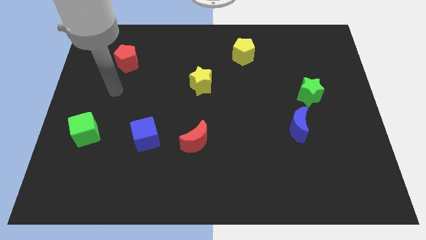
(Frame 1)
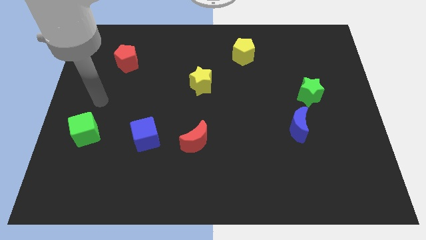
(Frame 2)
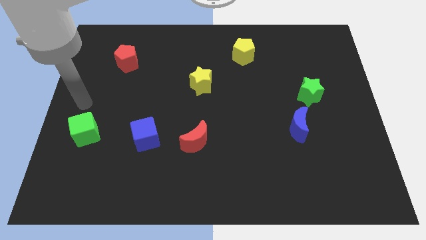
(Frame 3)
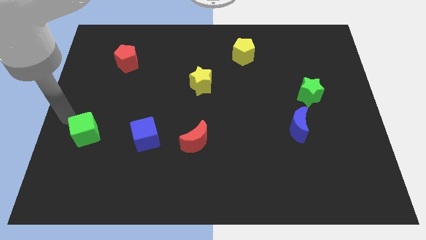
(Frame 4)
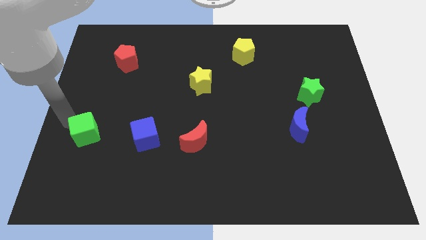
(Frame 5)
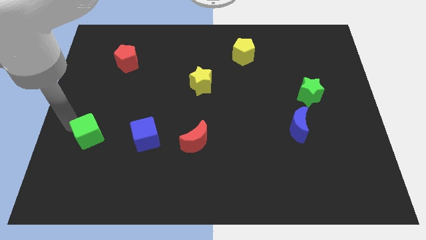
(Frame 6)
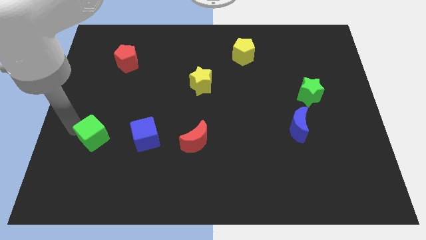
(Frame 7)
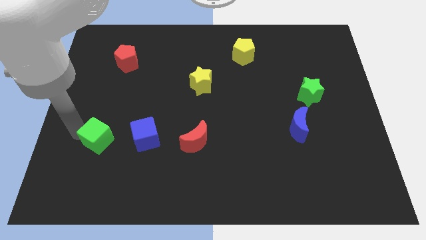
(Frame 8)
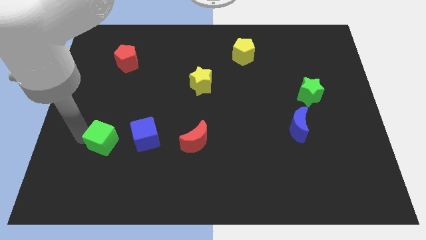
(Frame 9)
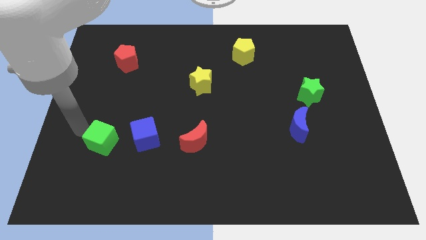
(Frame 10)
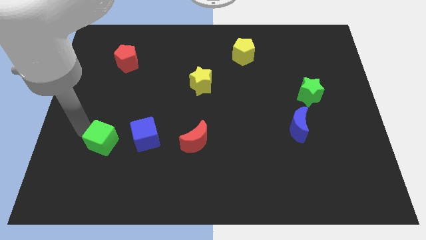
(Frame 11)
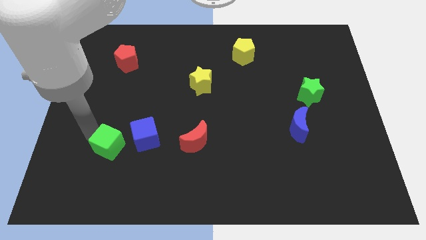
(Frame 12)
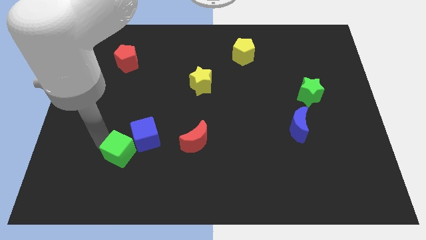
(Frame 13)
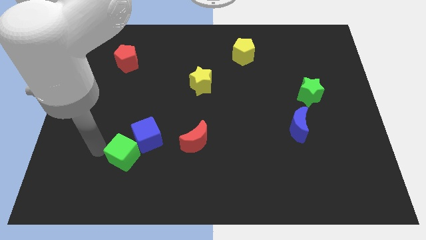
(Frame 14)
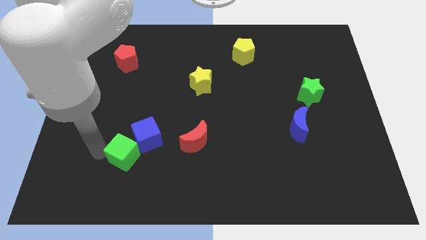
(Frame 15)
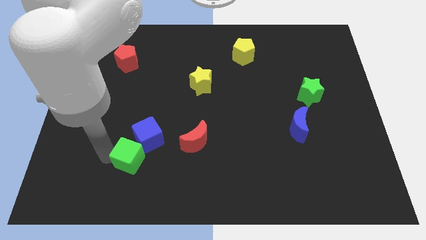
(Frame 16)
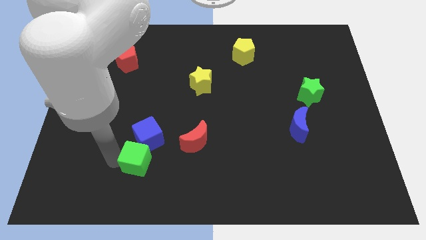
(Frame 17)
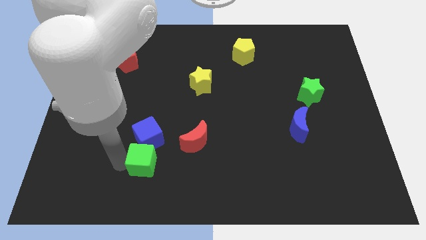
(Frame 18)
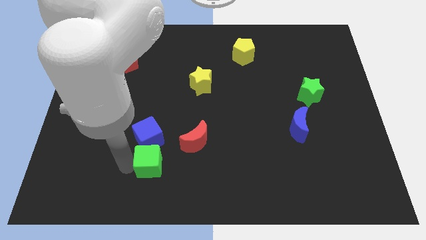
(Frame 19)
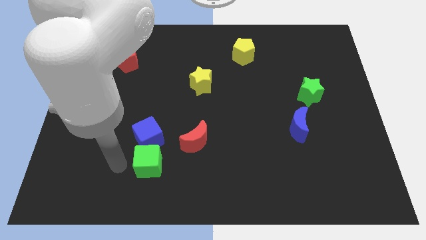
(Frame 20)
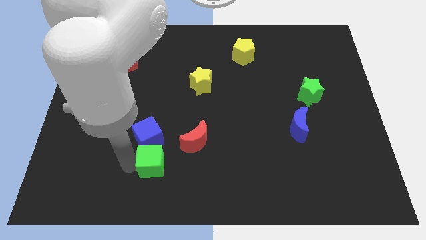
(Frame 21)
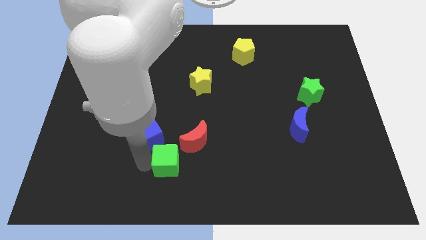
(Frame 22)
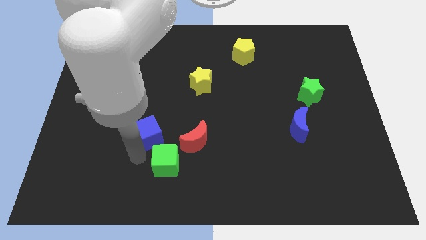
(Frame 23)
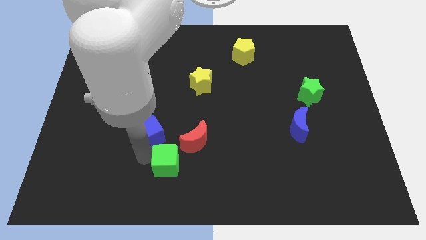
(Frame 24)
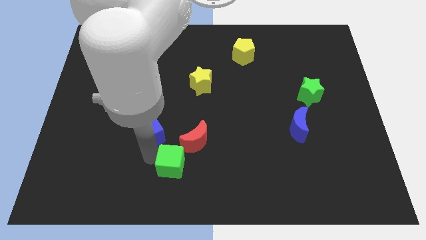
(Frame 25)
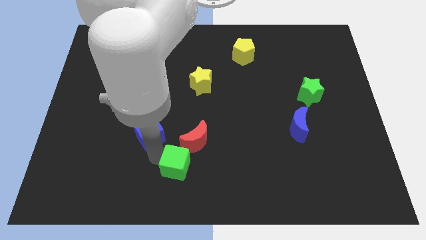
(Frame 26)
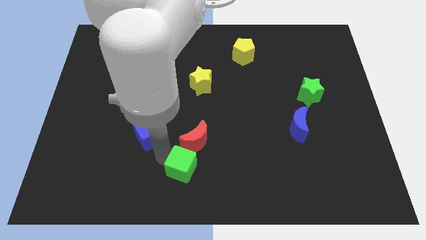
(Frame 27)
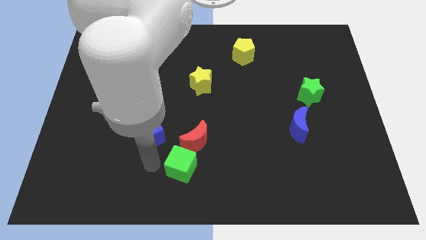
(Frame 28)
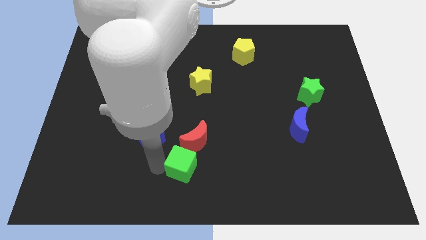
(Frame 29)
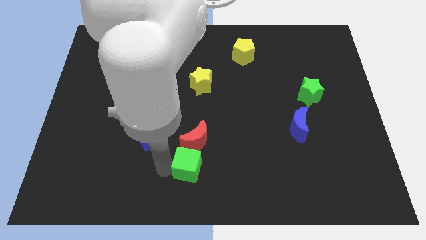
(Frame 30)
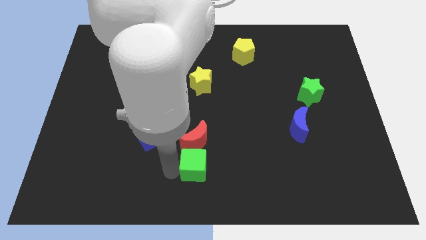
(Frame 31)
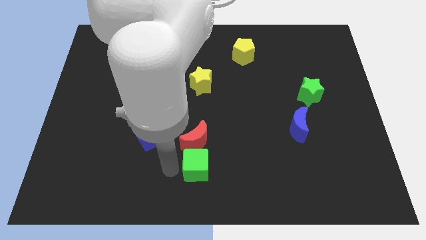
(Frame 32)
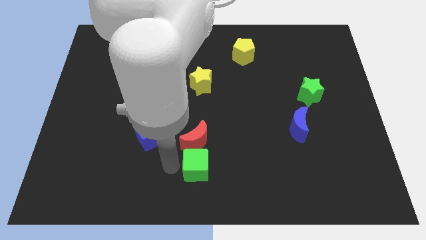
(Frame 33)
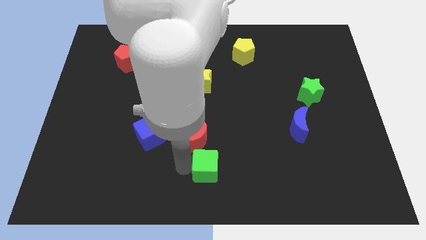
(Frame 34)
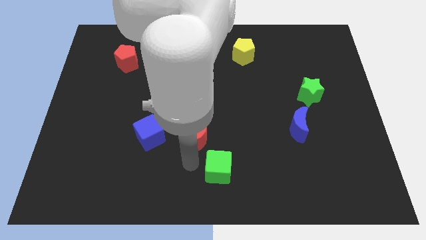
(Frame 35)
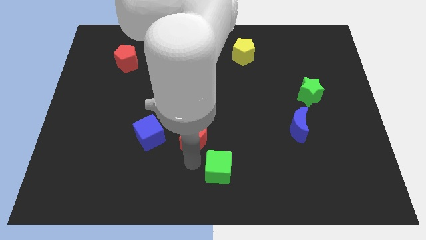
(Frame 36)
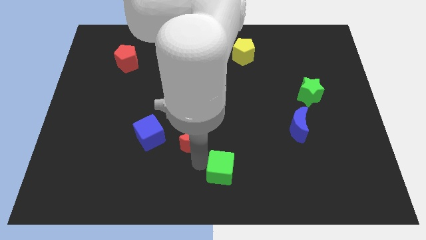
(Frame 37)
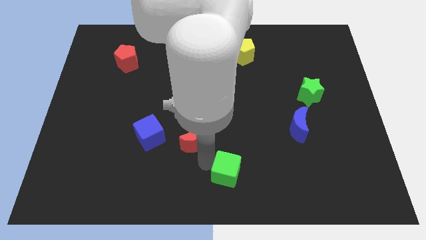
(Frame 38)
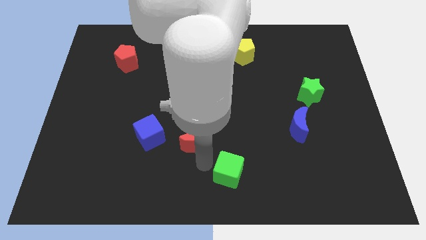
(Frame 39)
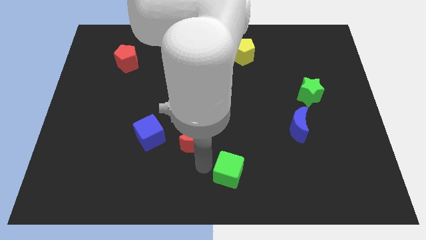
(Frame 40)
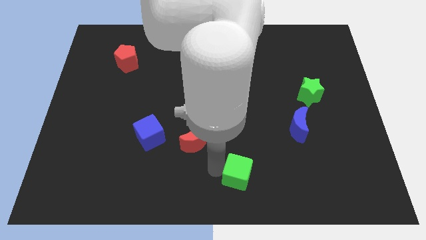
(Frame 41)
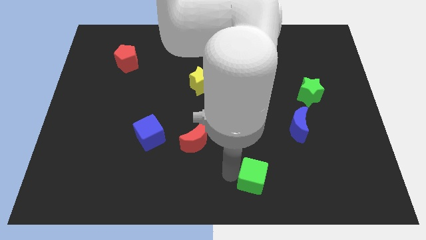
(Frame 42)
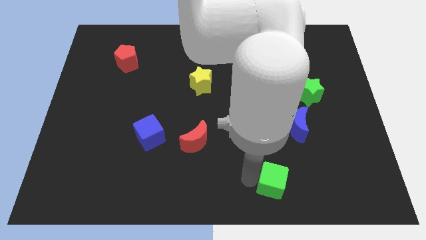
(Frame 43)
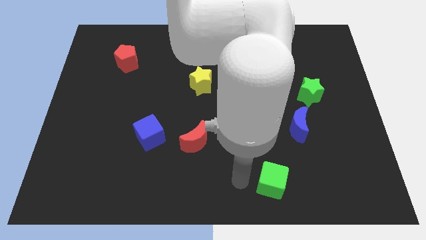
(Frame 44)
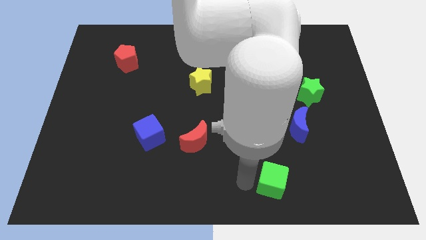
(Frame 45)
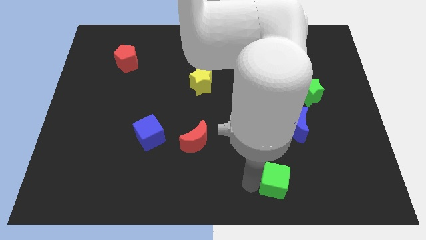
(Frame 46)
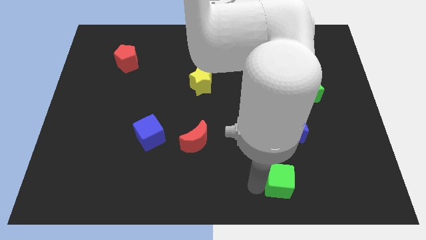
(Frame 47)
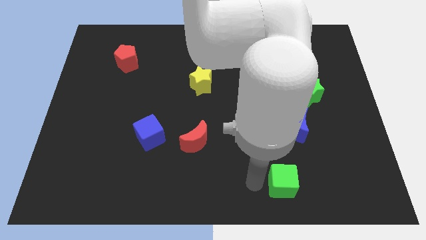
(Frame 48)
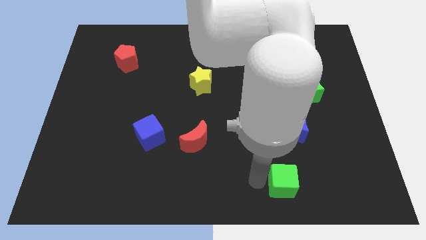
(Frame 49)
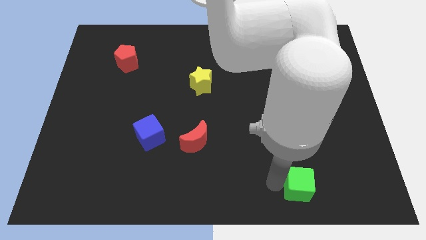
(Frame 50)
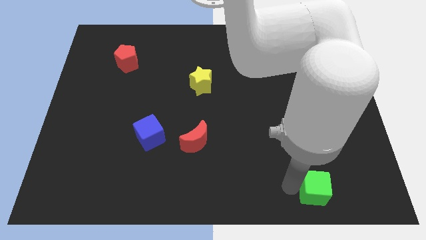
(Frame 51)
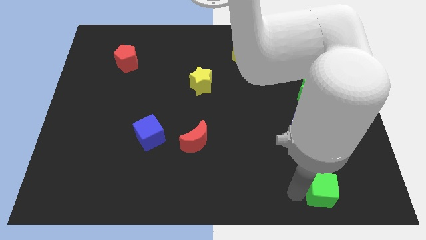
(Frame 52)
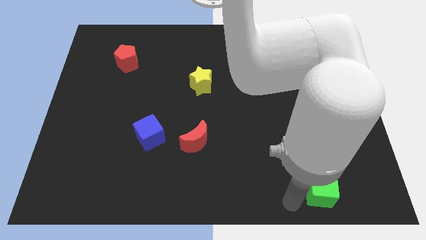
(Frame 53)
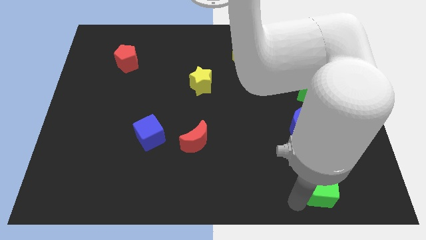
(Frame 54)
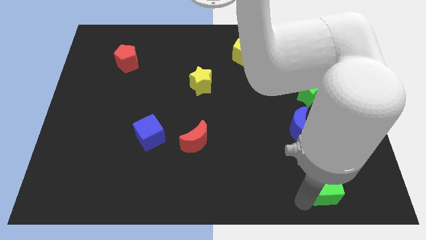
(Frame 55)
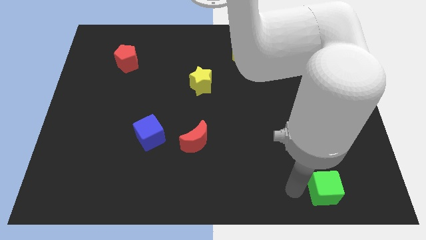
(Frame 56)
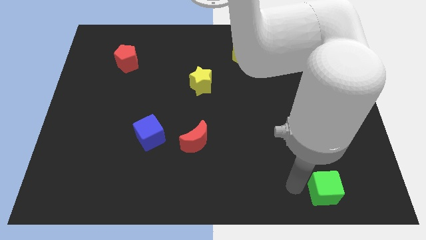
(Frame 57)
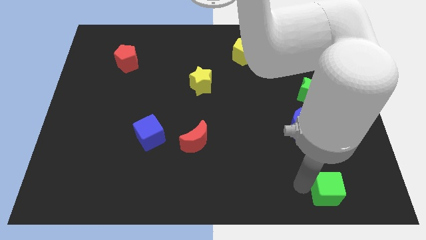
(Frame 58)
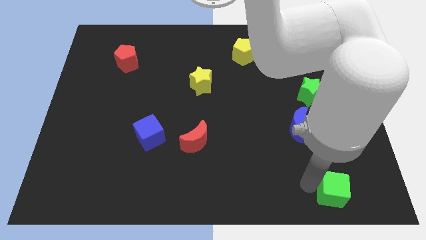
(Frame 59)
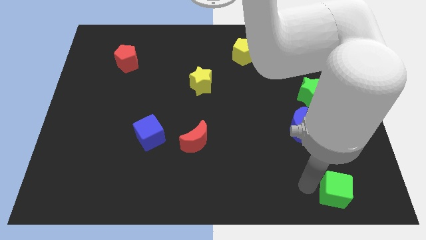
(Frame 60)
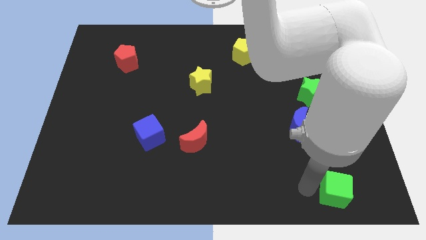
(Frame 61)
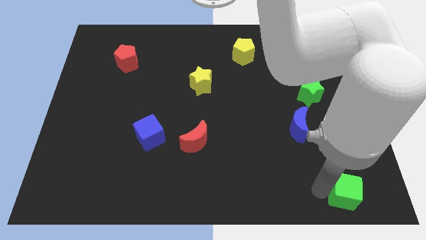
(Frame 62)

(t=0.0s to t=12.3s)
push the green cube to the lower right corner
